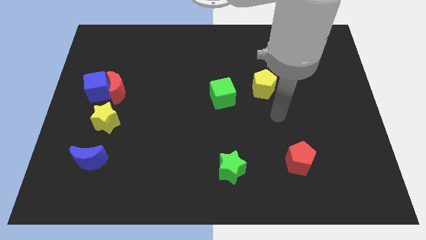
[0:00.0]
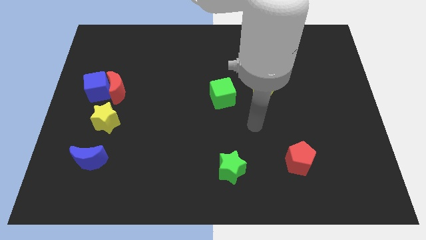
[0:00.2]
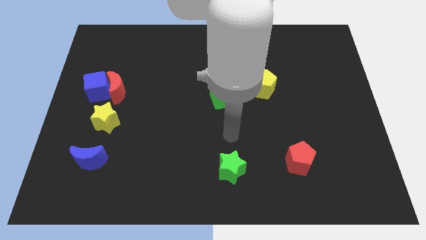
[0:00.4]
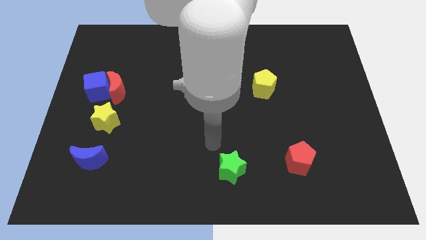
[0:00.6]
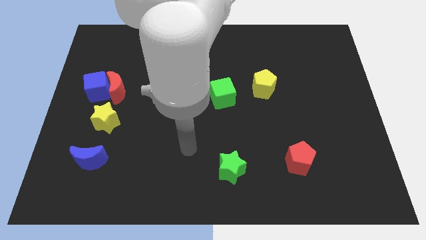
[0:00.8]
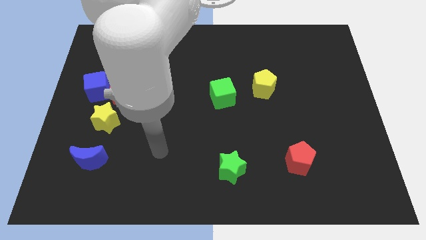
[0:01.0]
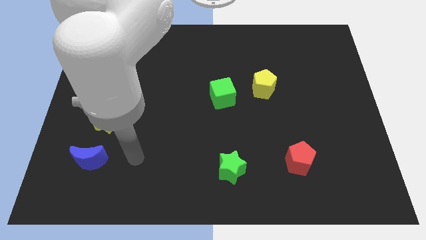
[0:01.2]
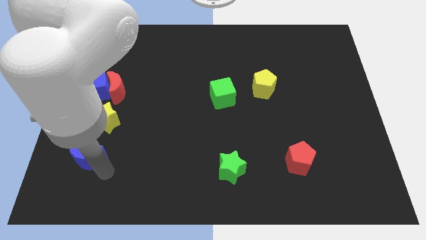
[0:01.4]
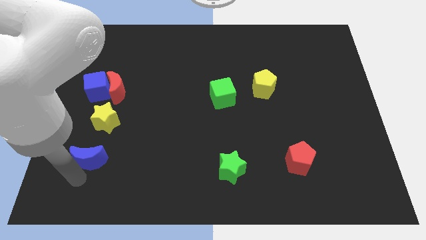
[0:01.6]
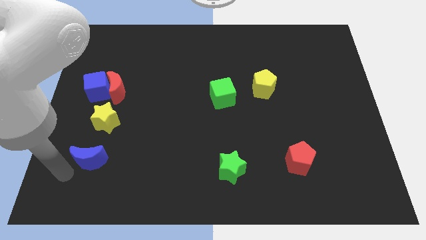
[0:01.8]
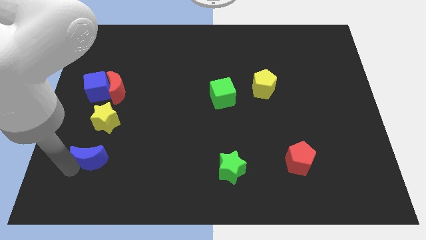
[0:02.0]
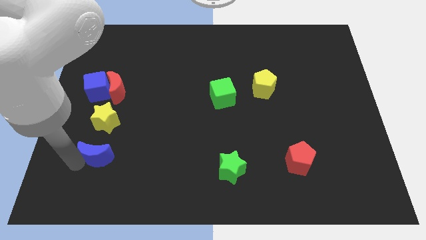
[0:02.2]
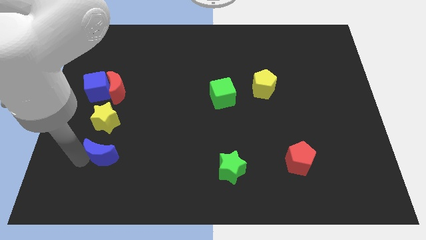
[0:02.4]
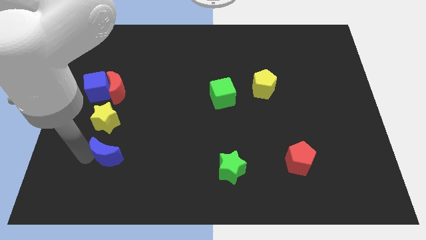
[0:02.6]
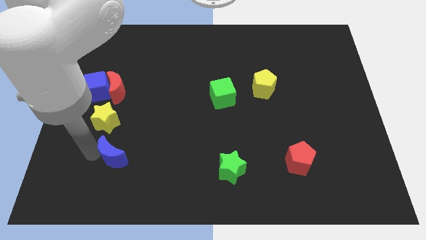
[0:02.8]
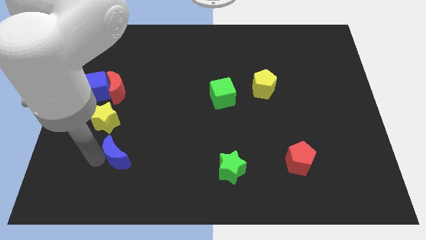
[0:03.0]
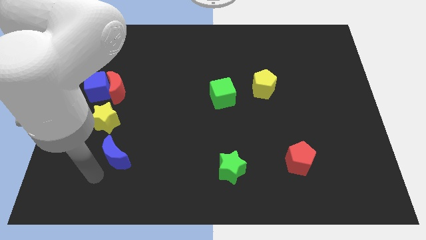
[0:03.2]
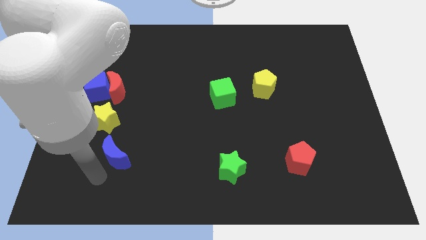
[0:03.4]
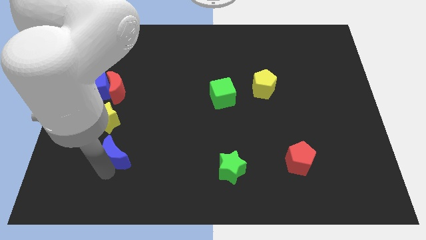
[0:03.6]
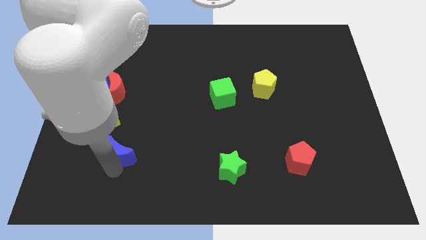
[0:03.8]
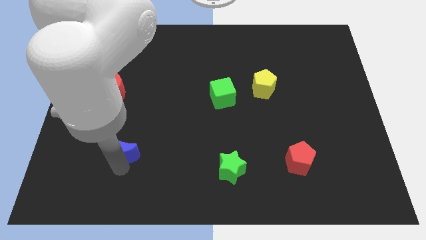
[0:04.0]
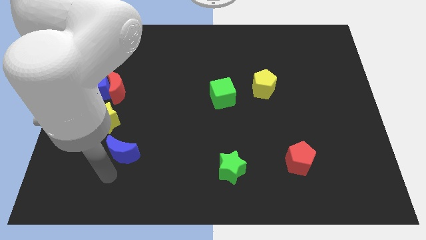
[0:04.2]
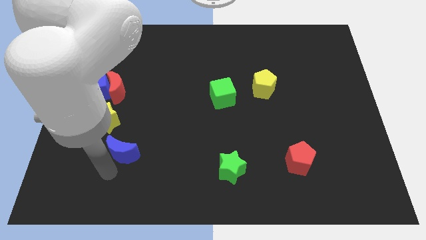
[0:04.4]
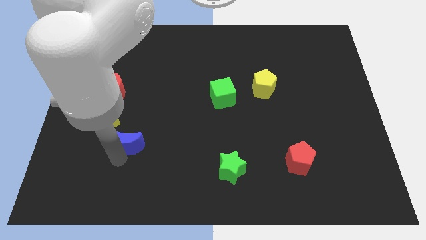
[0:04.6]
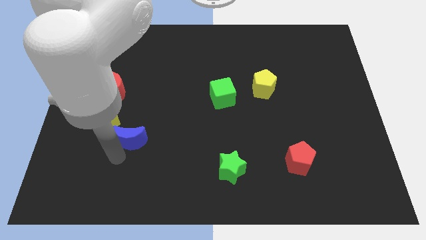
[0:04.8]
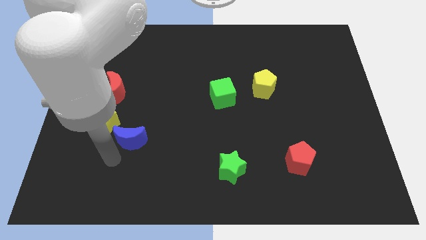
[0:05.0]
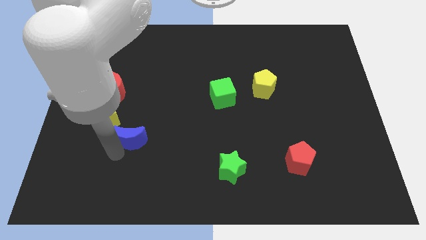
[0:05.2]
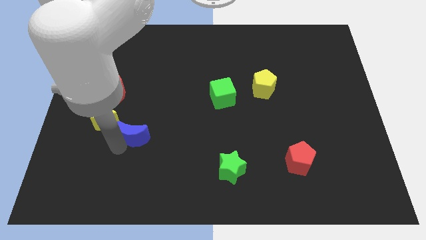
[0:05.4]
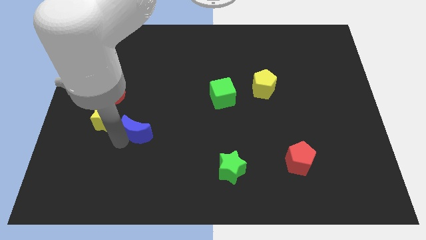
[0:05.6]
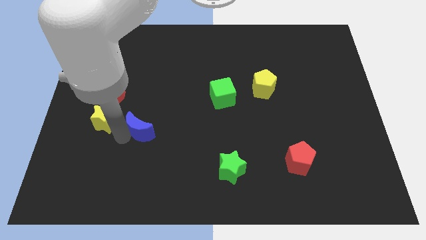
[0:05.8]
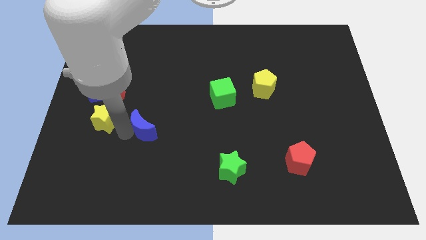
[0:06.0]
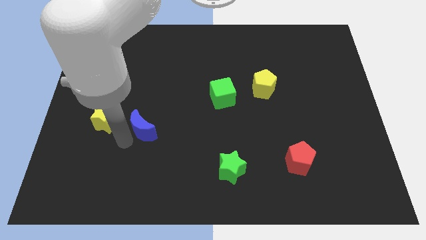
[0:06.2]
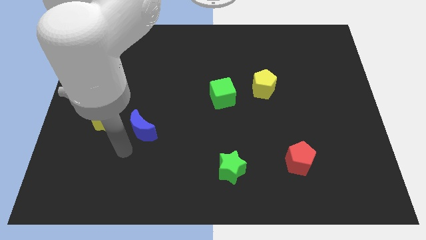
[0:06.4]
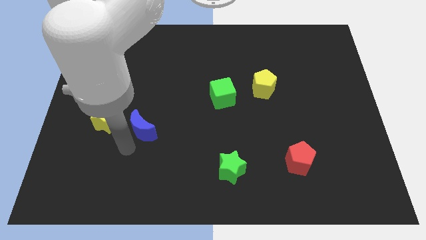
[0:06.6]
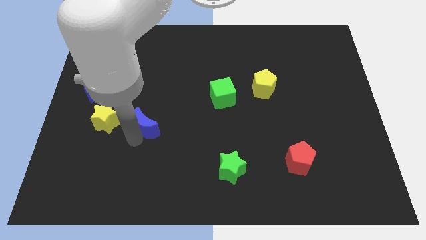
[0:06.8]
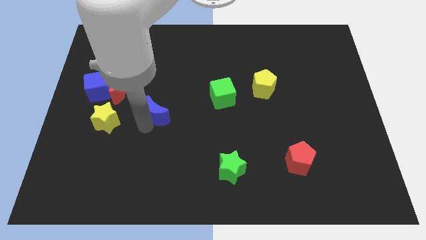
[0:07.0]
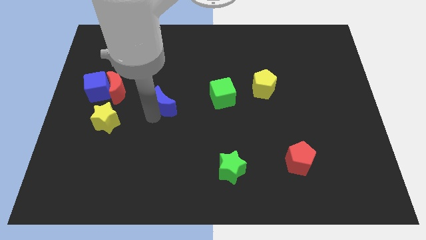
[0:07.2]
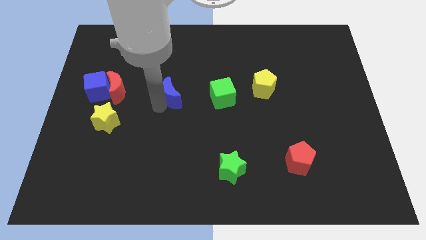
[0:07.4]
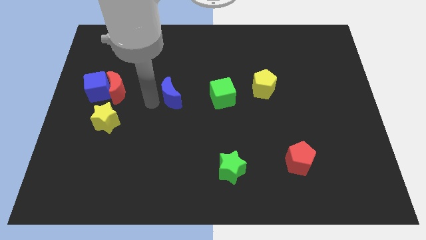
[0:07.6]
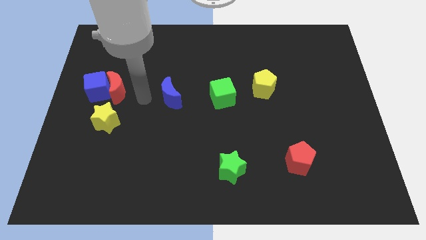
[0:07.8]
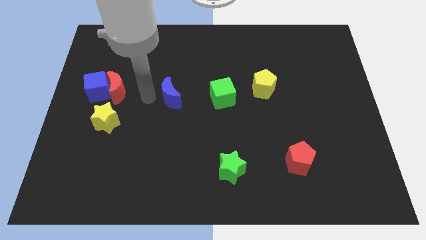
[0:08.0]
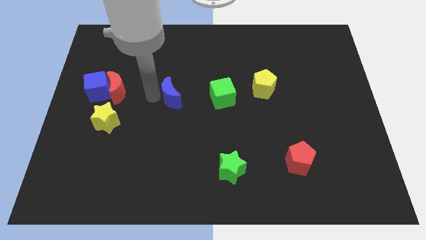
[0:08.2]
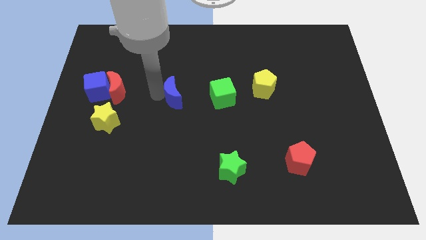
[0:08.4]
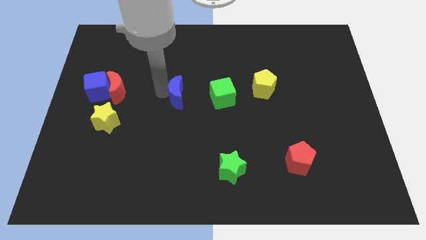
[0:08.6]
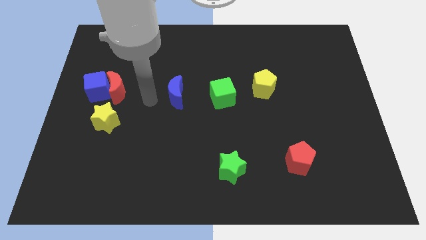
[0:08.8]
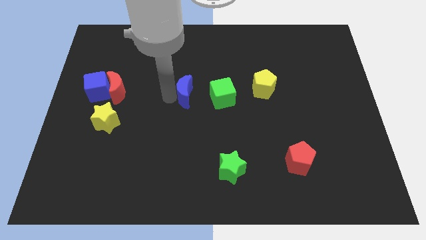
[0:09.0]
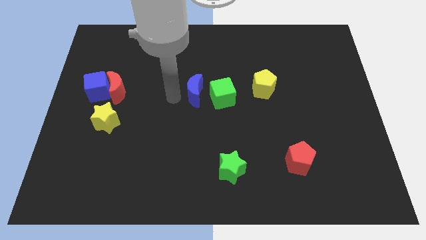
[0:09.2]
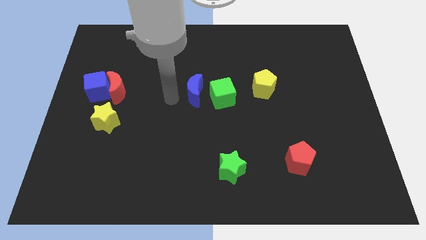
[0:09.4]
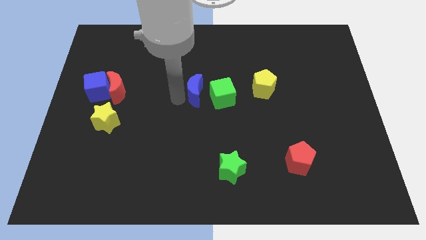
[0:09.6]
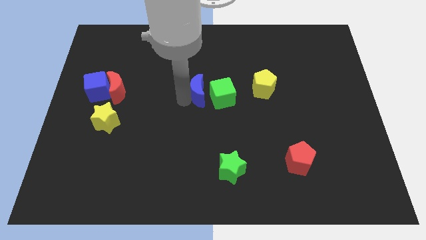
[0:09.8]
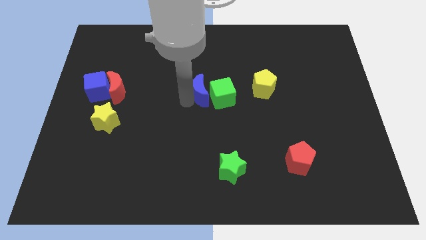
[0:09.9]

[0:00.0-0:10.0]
slide the blue moon left of the yellow pentagon

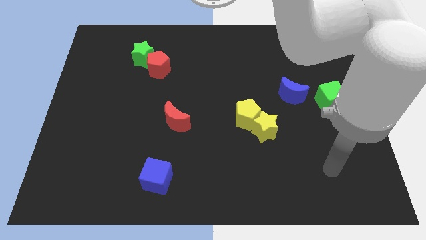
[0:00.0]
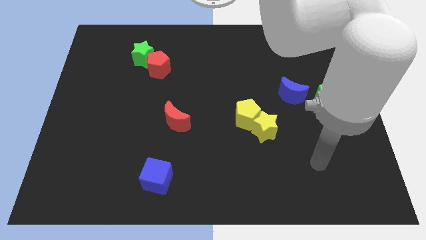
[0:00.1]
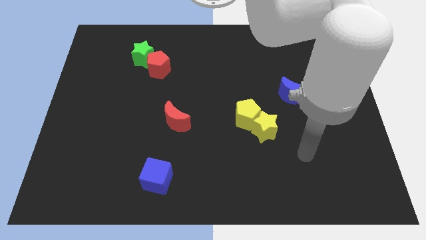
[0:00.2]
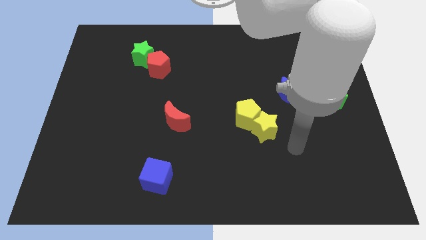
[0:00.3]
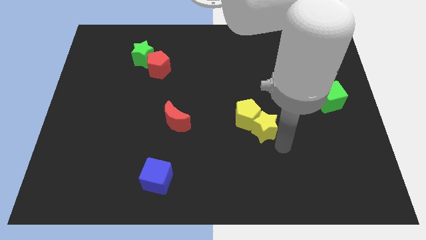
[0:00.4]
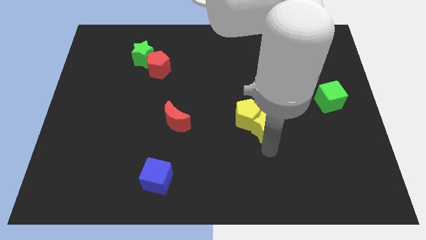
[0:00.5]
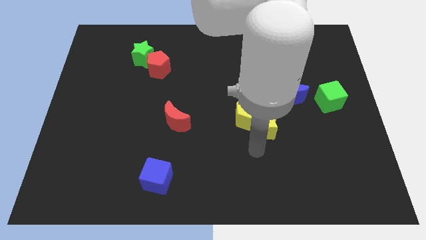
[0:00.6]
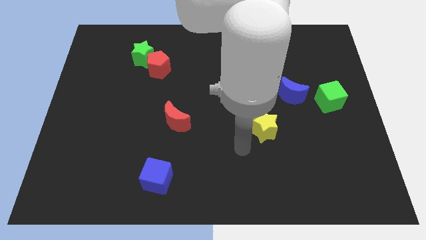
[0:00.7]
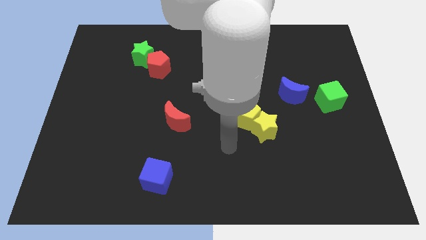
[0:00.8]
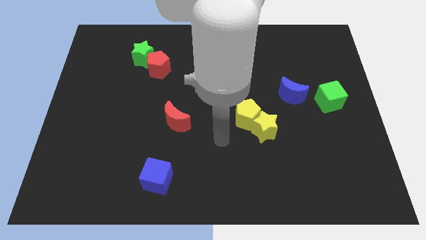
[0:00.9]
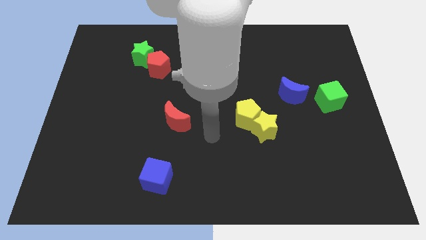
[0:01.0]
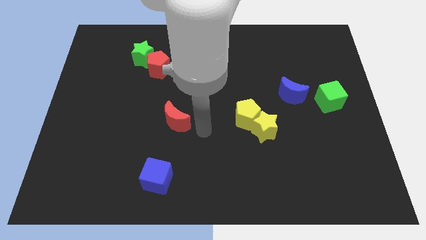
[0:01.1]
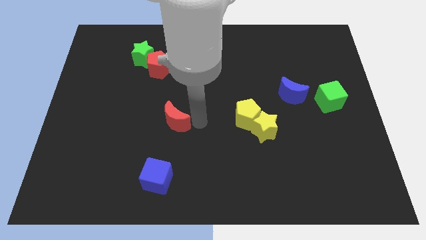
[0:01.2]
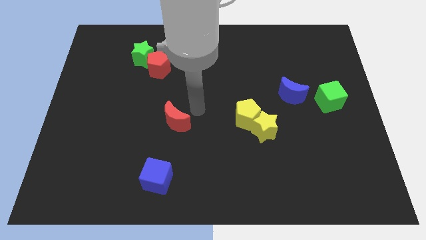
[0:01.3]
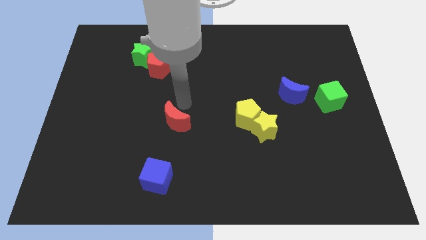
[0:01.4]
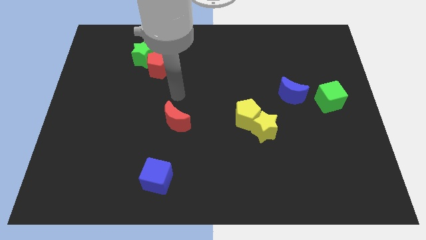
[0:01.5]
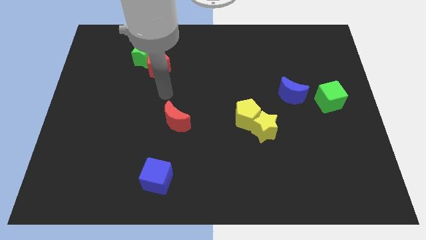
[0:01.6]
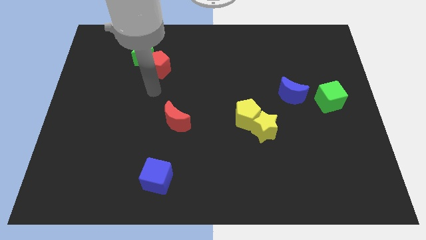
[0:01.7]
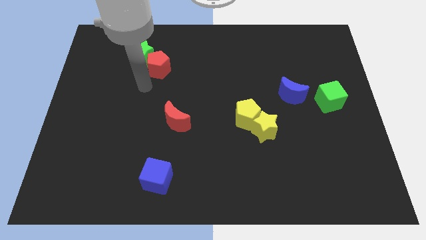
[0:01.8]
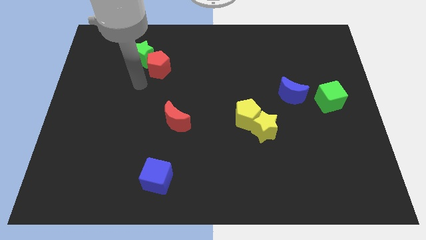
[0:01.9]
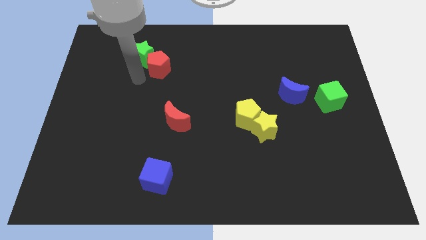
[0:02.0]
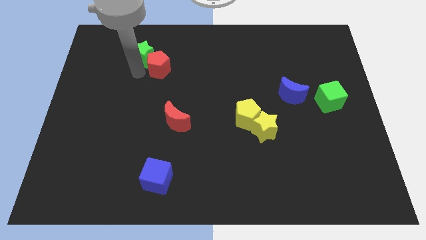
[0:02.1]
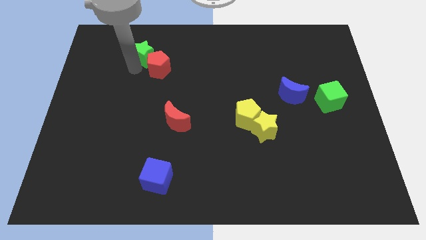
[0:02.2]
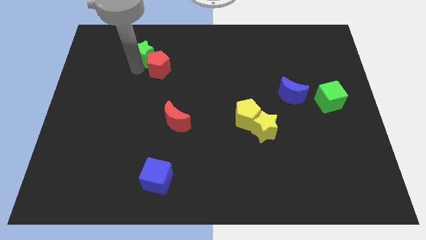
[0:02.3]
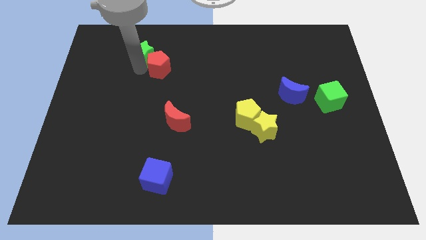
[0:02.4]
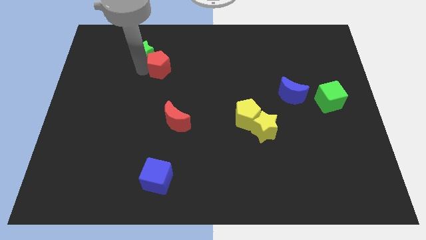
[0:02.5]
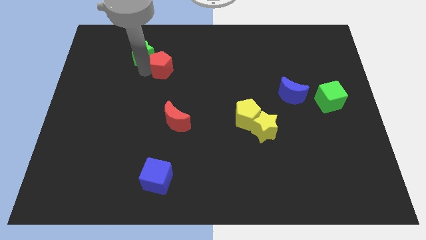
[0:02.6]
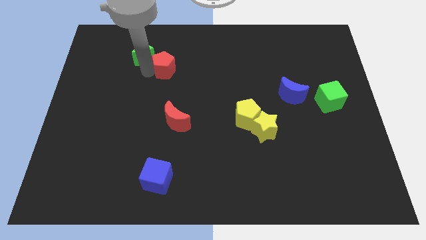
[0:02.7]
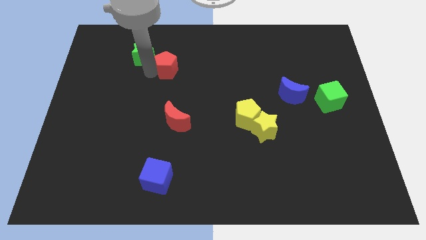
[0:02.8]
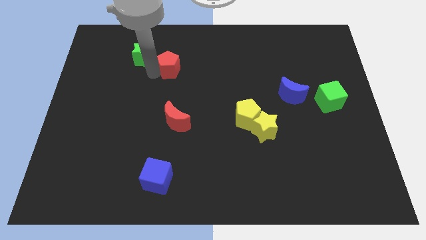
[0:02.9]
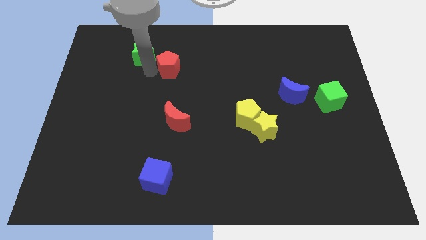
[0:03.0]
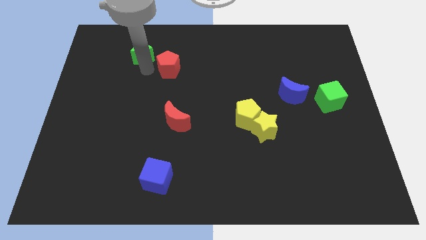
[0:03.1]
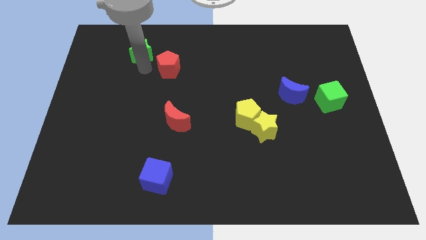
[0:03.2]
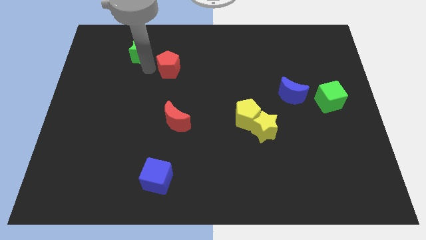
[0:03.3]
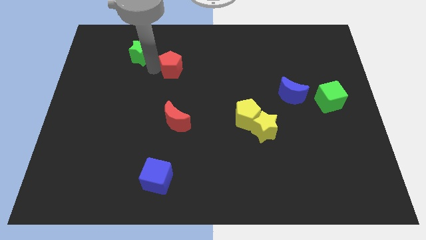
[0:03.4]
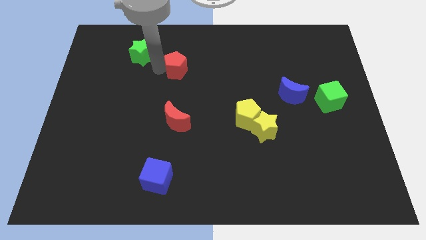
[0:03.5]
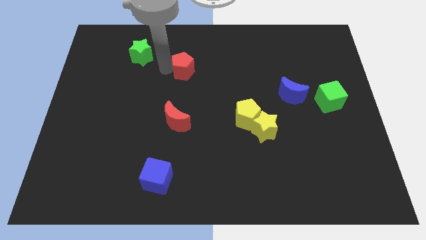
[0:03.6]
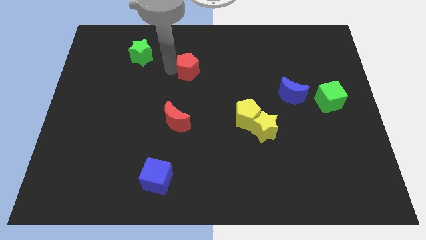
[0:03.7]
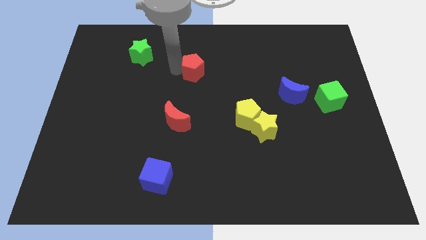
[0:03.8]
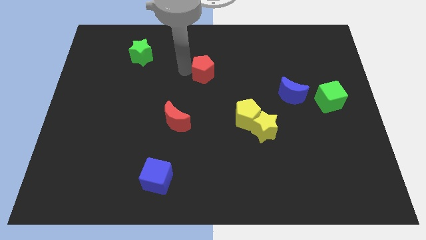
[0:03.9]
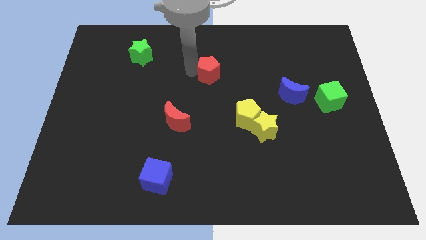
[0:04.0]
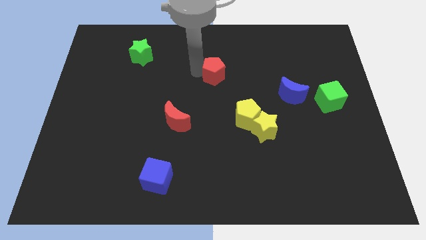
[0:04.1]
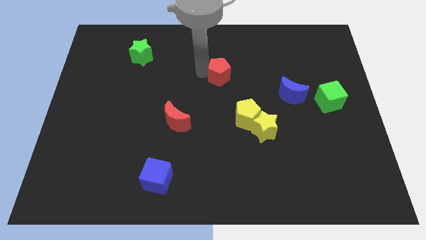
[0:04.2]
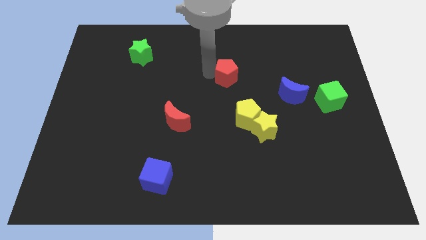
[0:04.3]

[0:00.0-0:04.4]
slide the red pentagon above the yellow pentagon
